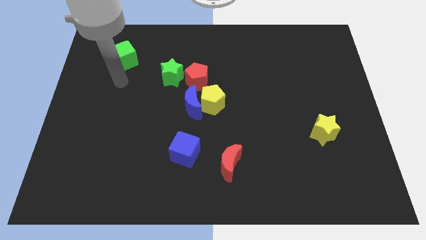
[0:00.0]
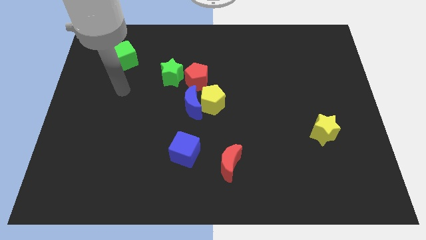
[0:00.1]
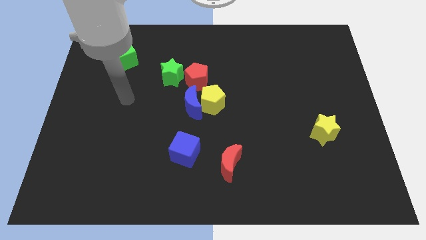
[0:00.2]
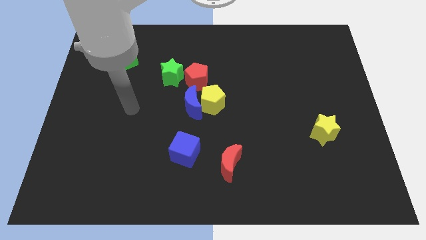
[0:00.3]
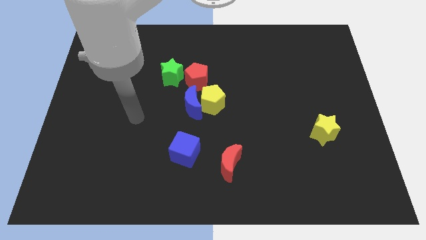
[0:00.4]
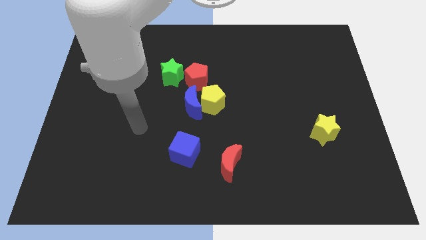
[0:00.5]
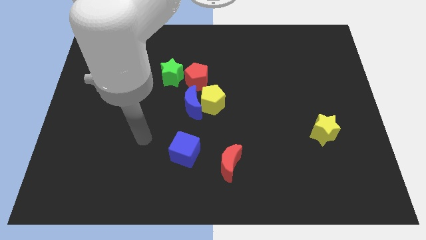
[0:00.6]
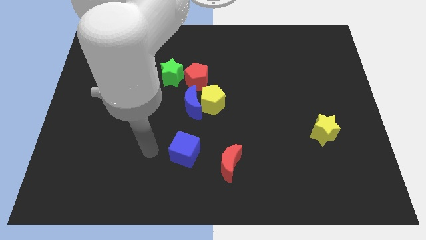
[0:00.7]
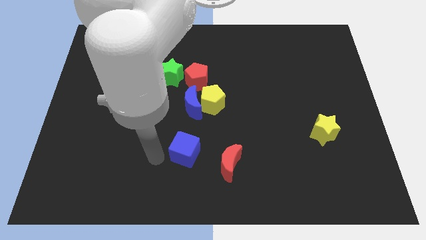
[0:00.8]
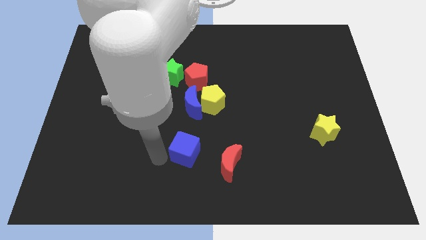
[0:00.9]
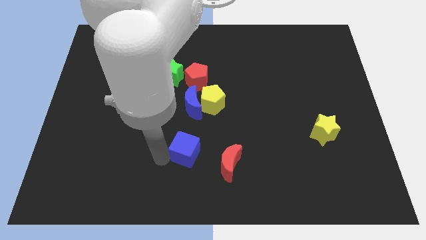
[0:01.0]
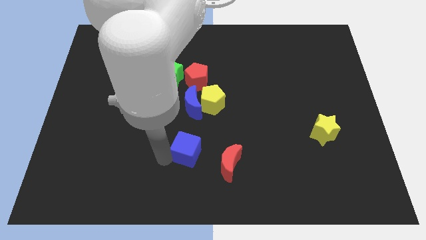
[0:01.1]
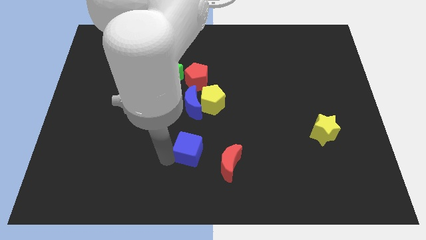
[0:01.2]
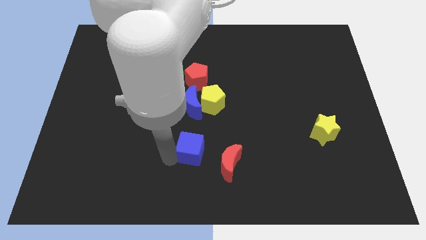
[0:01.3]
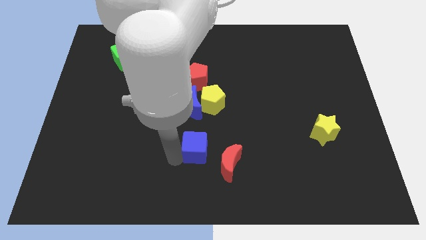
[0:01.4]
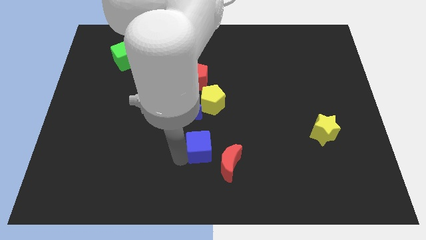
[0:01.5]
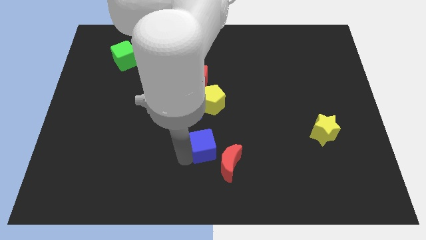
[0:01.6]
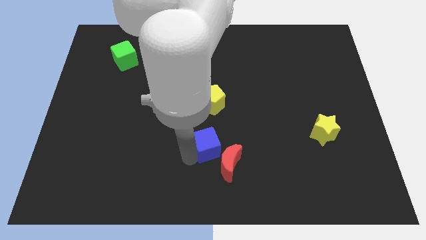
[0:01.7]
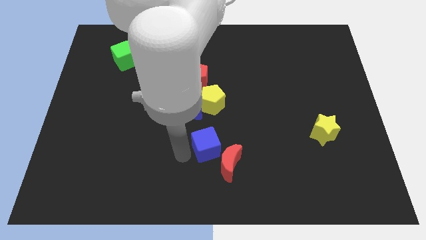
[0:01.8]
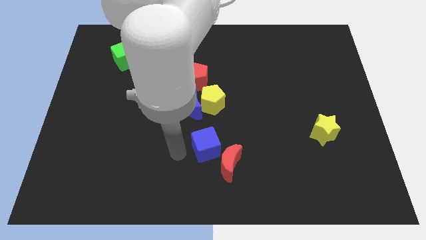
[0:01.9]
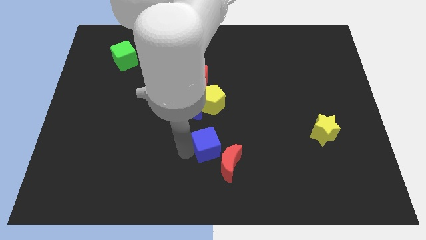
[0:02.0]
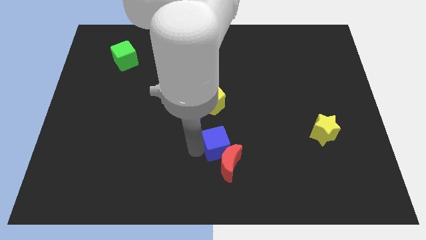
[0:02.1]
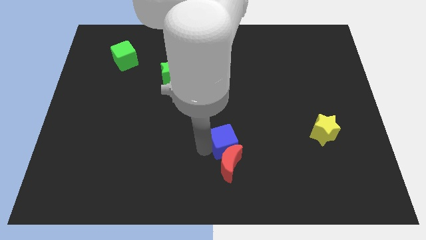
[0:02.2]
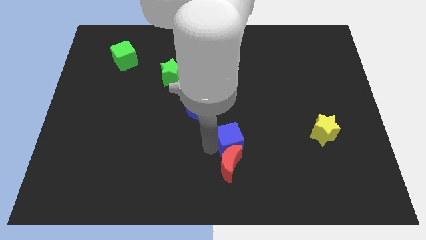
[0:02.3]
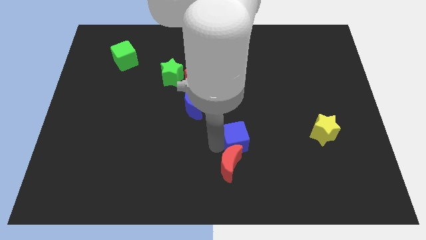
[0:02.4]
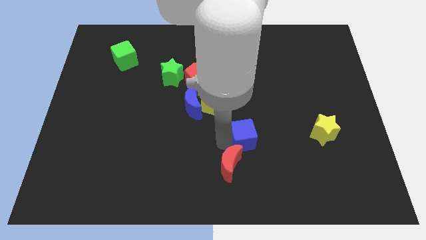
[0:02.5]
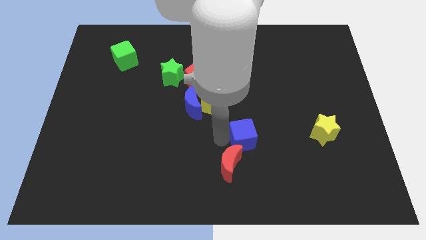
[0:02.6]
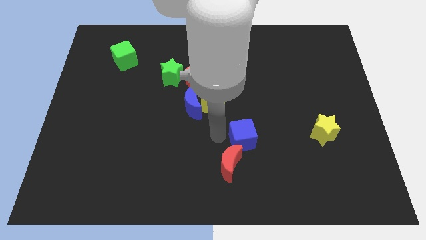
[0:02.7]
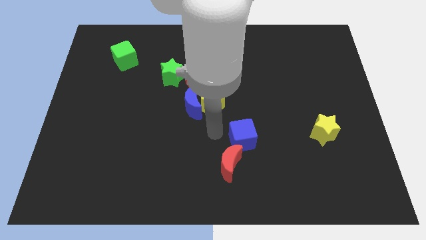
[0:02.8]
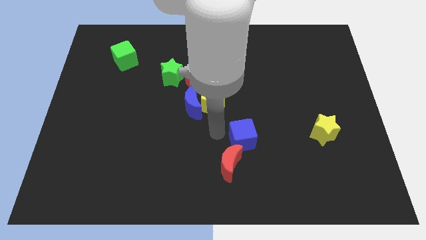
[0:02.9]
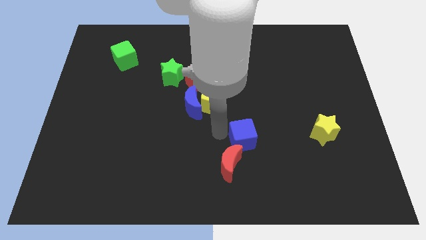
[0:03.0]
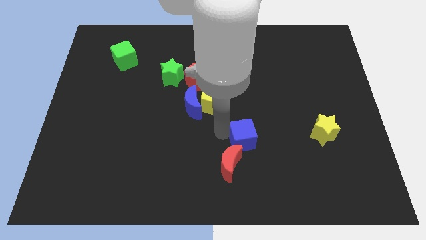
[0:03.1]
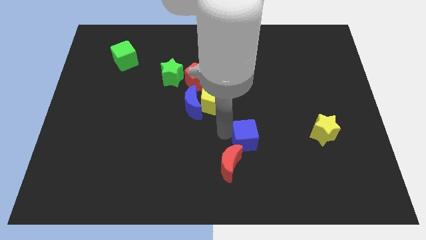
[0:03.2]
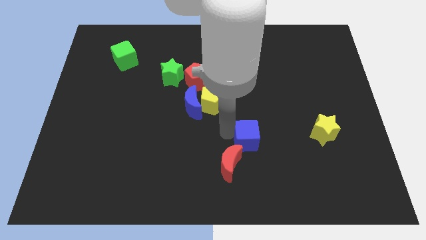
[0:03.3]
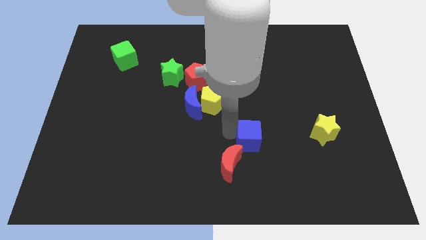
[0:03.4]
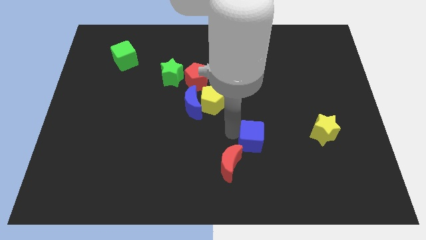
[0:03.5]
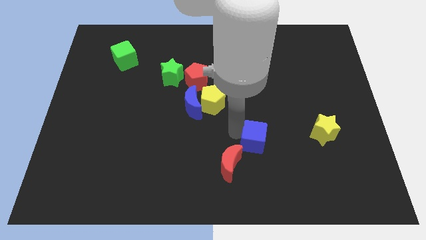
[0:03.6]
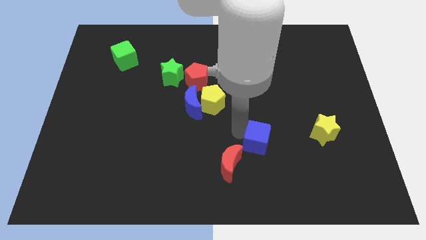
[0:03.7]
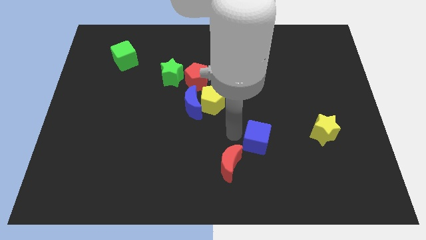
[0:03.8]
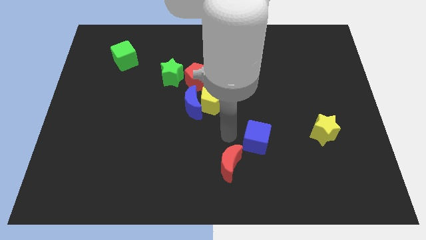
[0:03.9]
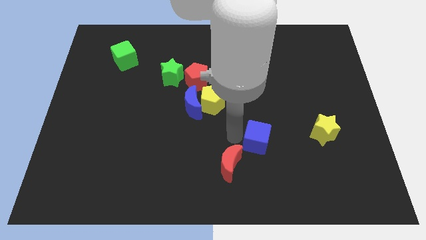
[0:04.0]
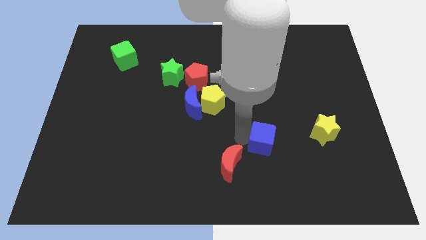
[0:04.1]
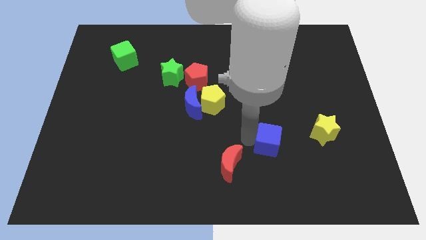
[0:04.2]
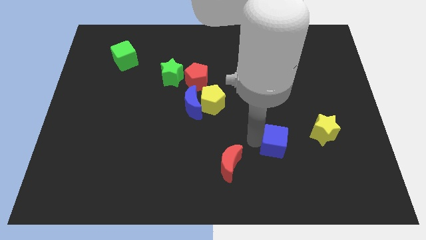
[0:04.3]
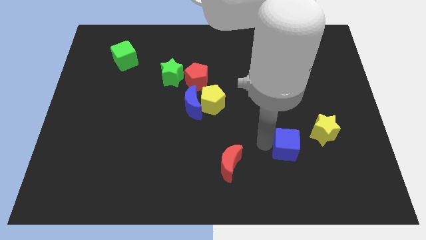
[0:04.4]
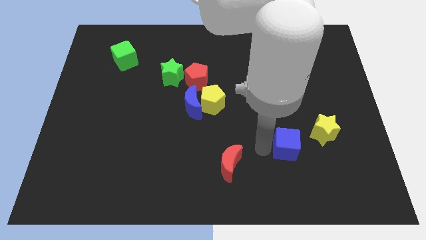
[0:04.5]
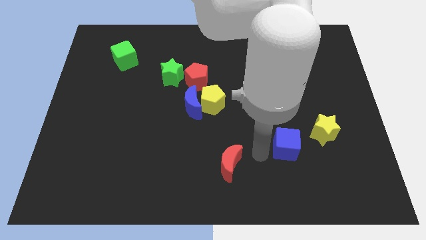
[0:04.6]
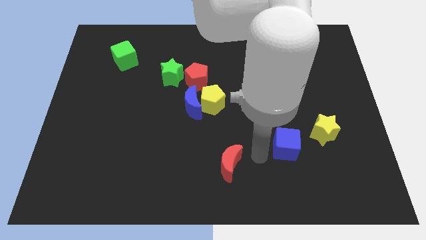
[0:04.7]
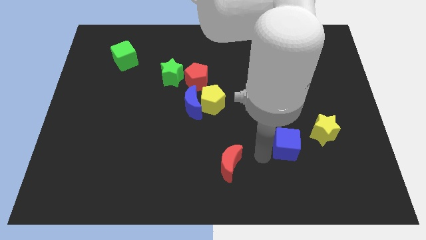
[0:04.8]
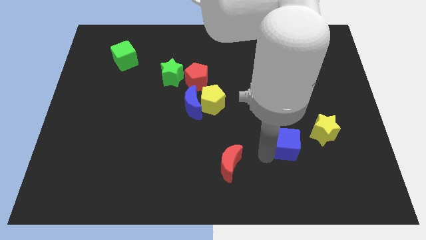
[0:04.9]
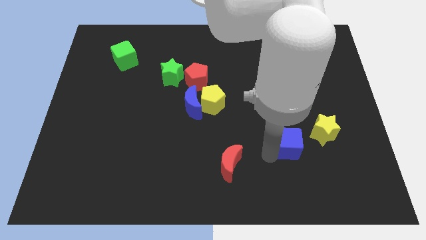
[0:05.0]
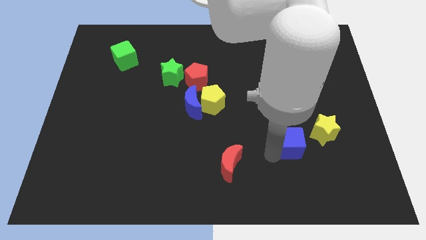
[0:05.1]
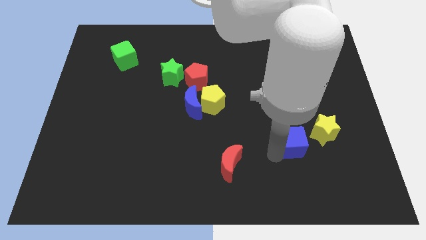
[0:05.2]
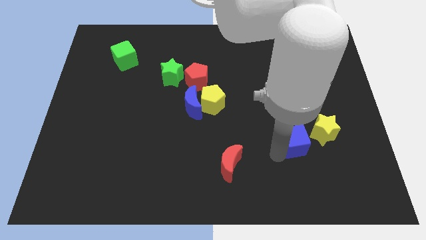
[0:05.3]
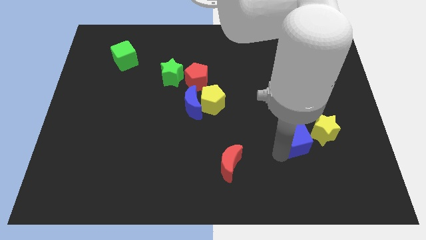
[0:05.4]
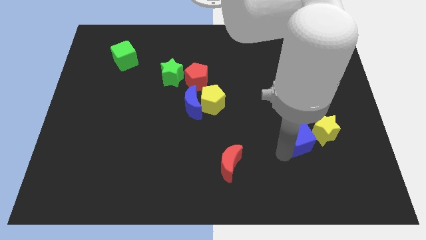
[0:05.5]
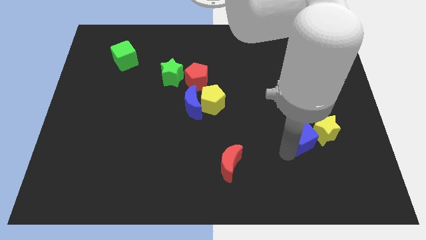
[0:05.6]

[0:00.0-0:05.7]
push the blue cube to the yellow star

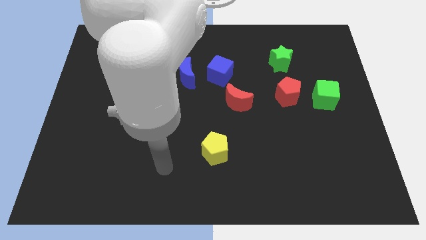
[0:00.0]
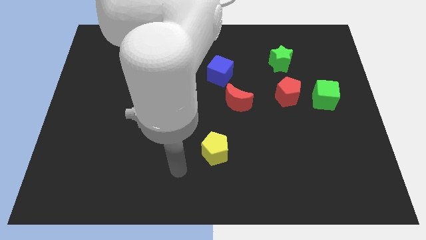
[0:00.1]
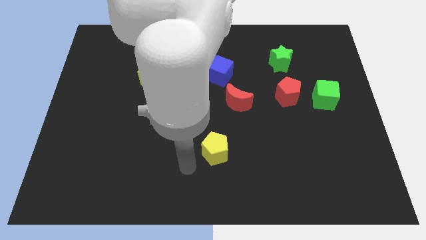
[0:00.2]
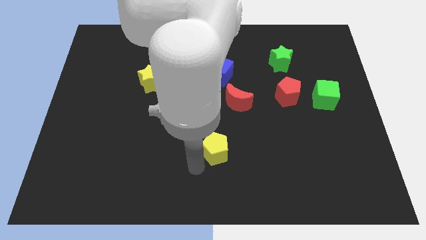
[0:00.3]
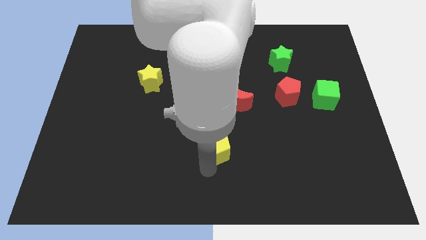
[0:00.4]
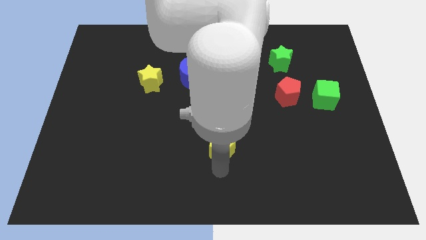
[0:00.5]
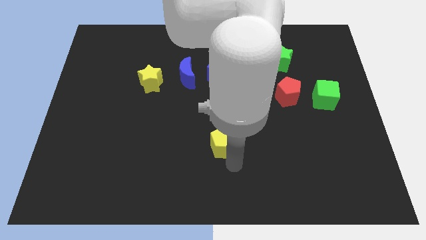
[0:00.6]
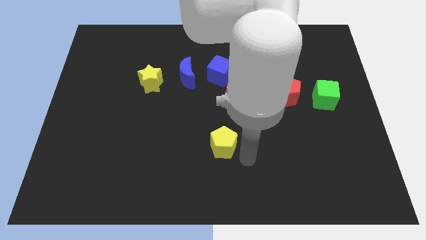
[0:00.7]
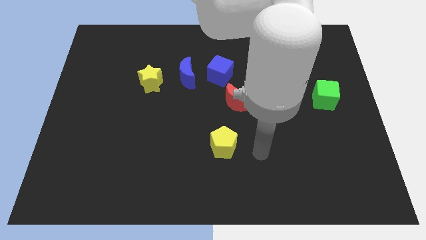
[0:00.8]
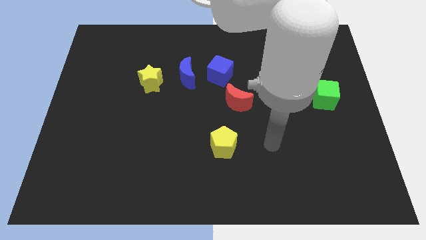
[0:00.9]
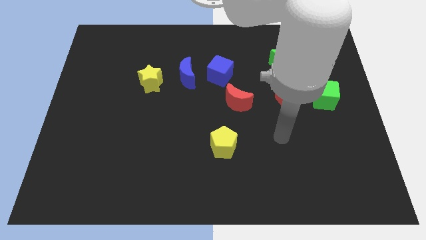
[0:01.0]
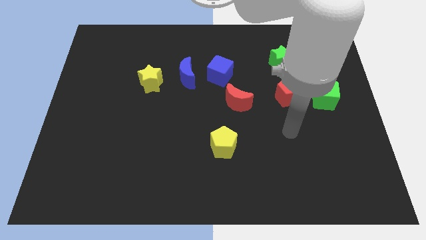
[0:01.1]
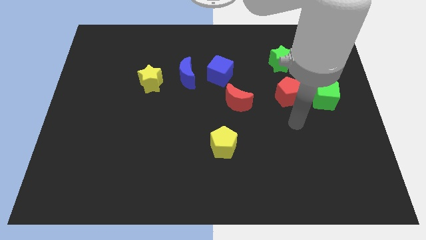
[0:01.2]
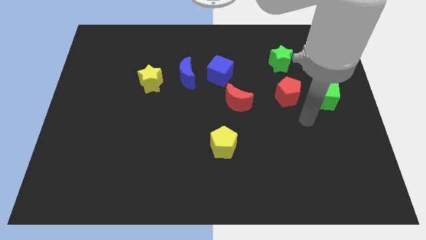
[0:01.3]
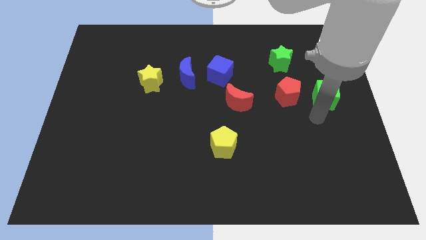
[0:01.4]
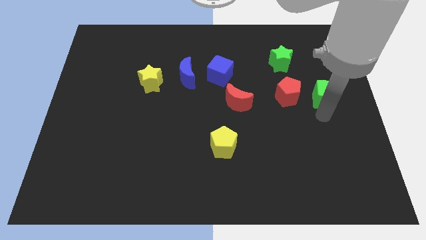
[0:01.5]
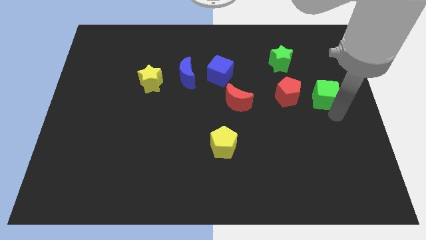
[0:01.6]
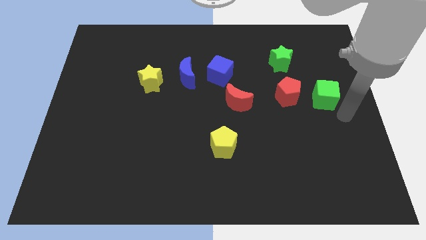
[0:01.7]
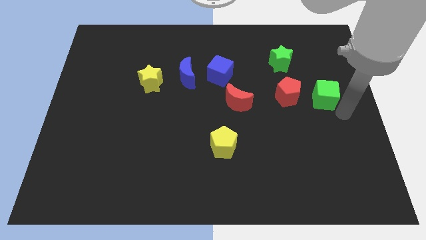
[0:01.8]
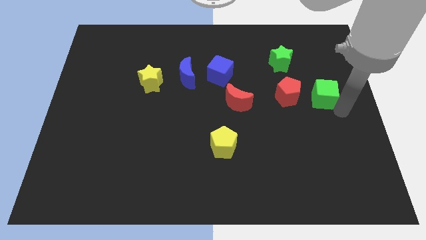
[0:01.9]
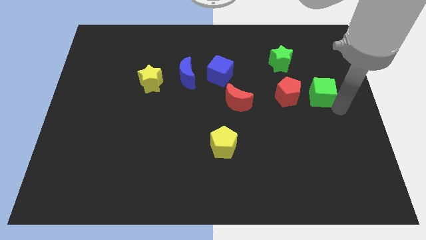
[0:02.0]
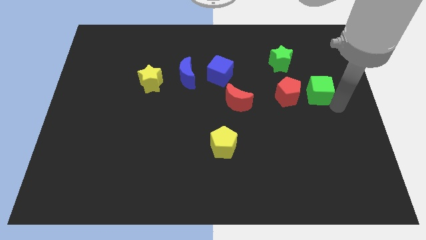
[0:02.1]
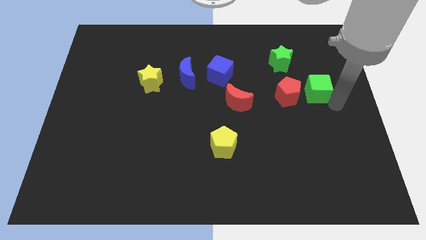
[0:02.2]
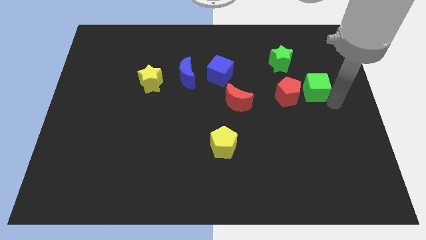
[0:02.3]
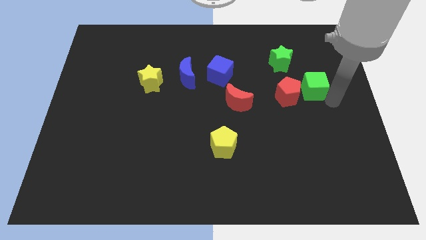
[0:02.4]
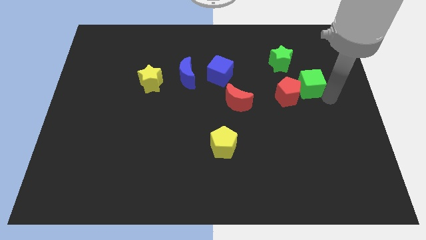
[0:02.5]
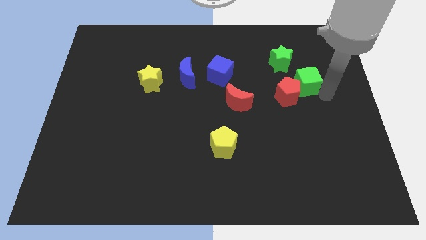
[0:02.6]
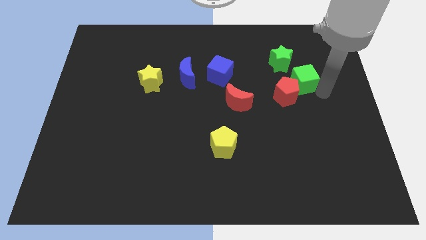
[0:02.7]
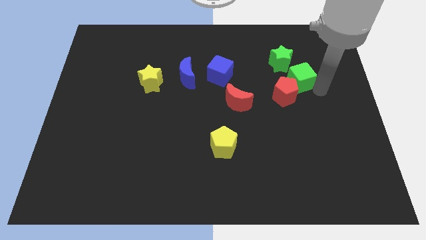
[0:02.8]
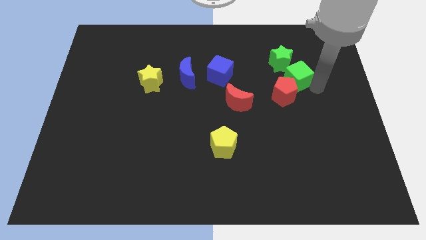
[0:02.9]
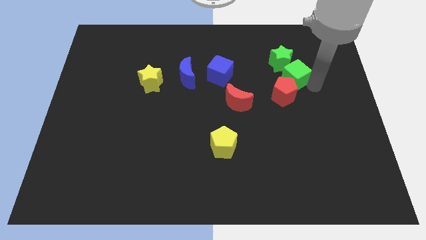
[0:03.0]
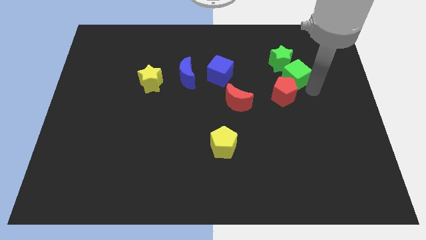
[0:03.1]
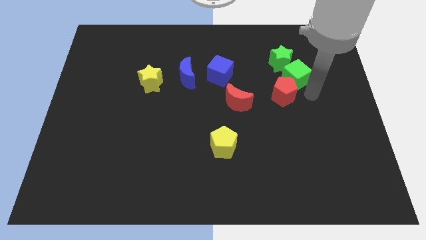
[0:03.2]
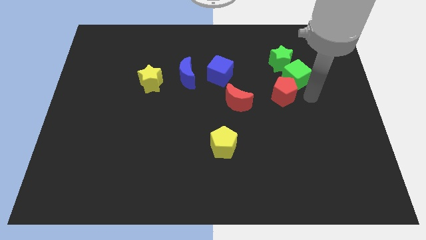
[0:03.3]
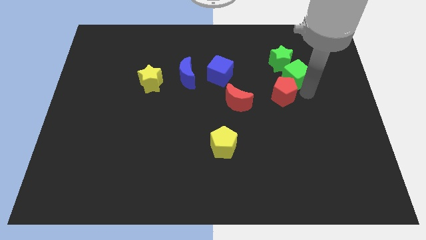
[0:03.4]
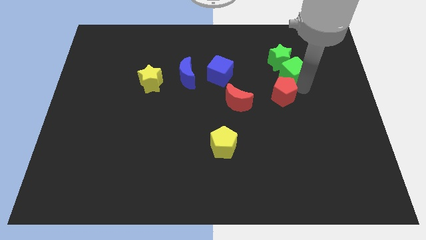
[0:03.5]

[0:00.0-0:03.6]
put the green cube to the green star
